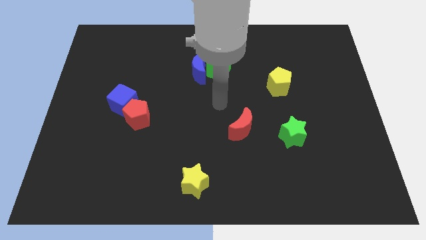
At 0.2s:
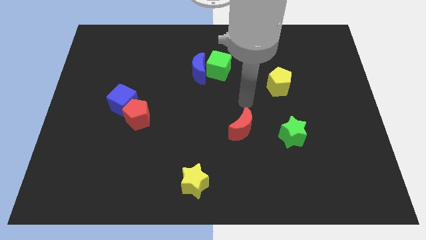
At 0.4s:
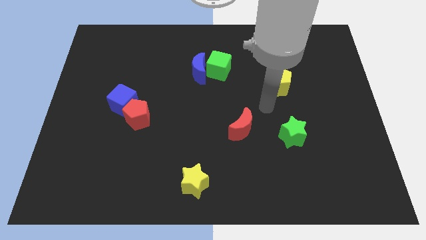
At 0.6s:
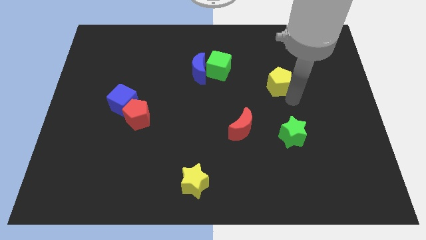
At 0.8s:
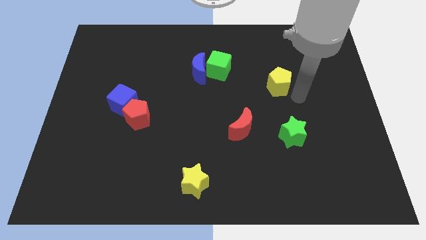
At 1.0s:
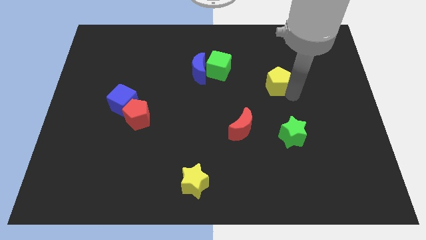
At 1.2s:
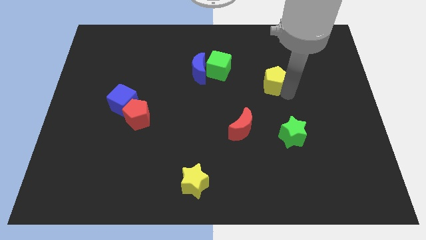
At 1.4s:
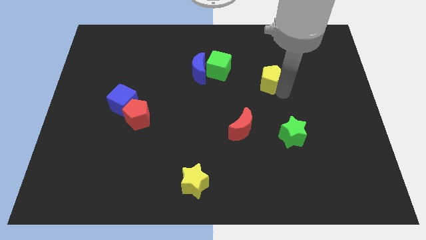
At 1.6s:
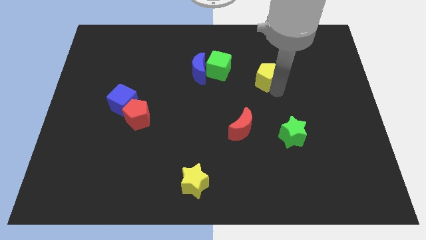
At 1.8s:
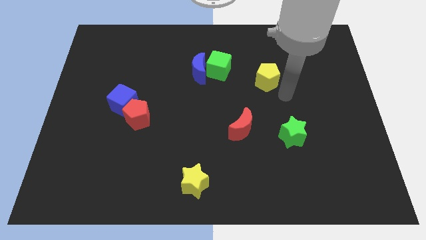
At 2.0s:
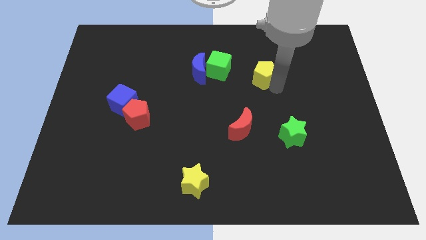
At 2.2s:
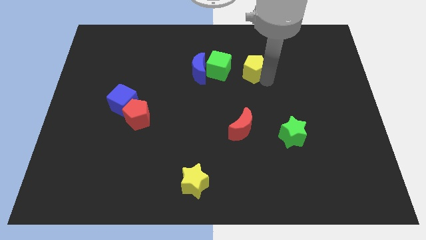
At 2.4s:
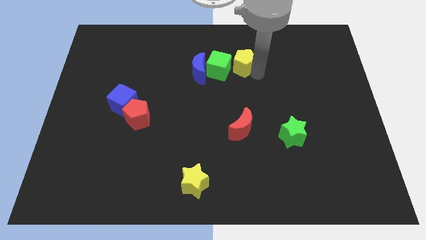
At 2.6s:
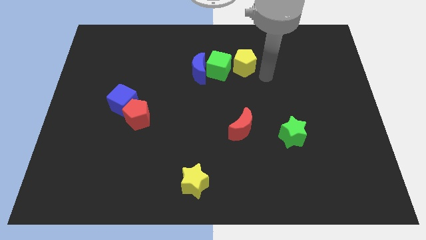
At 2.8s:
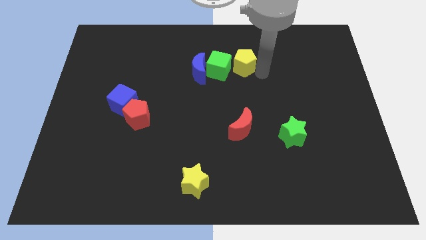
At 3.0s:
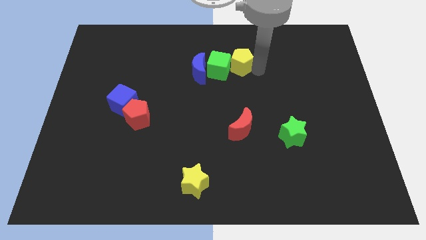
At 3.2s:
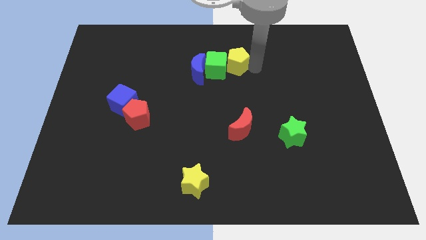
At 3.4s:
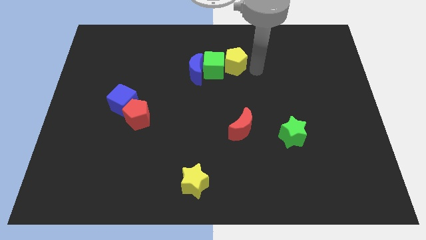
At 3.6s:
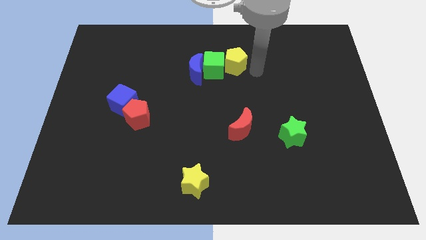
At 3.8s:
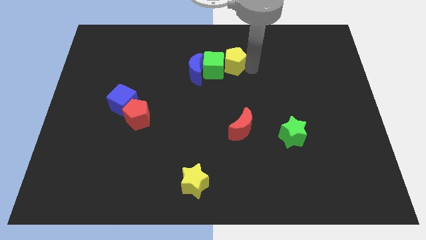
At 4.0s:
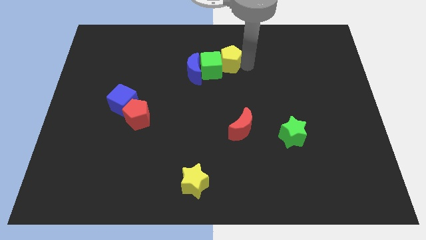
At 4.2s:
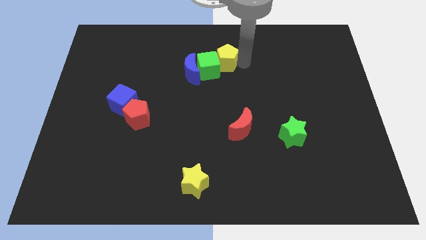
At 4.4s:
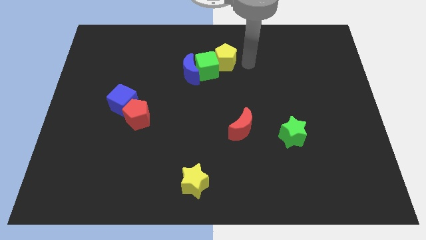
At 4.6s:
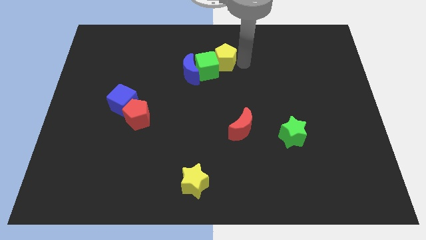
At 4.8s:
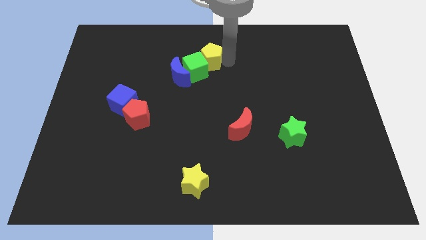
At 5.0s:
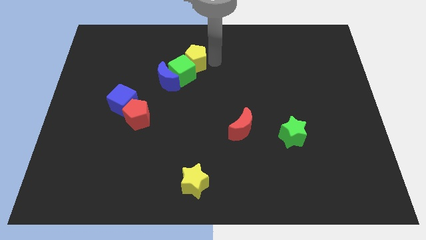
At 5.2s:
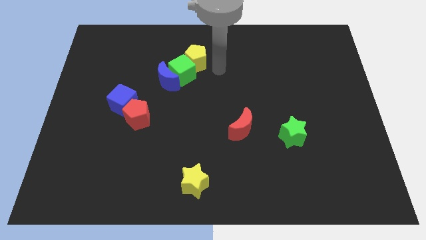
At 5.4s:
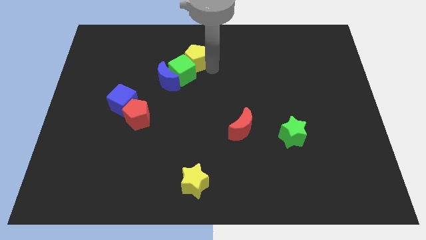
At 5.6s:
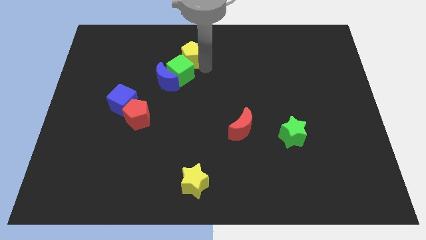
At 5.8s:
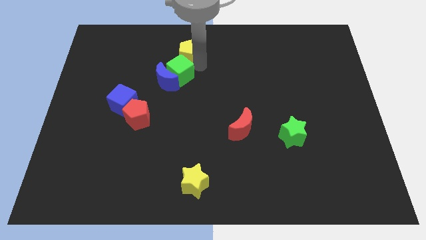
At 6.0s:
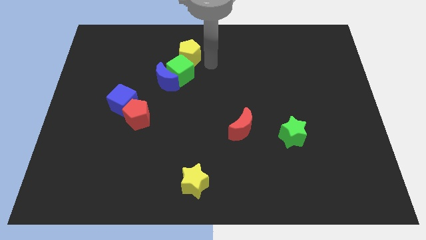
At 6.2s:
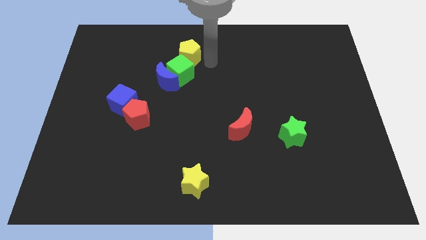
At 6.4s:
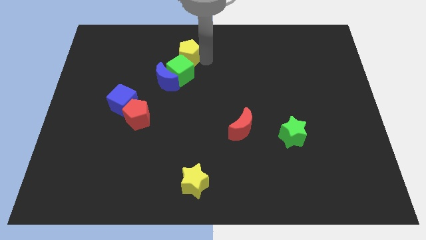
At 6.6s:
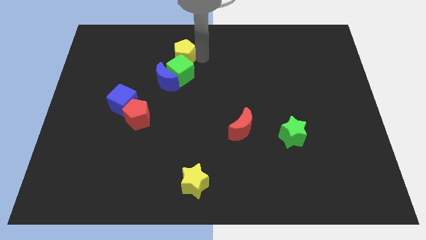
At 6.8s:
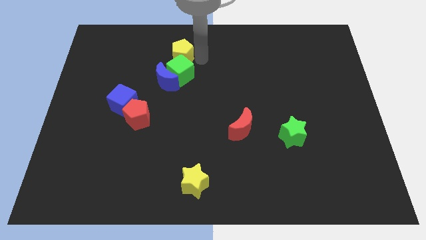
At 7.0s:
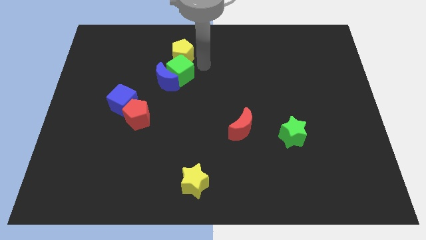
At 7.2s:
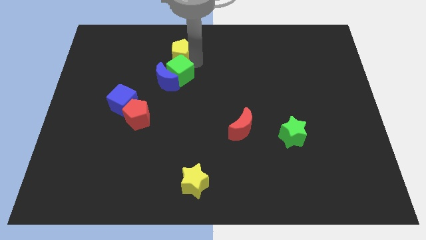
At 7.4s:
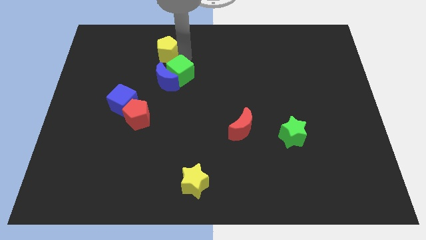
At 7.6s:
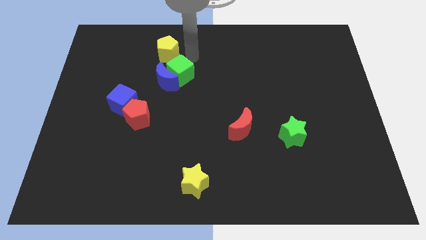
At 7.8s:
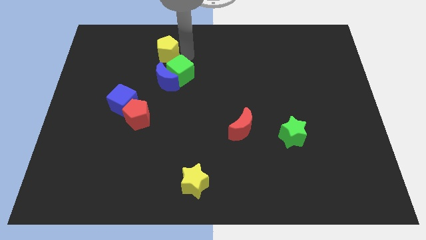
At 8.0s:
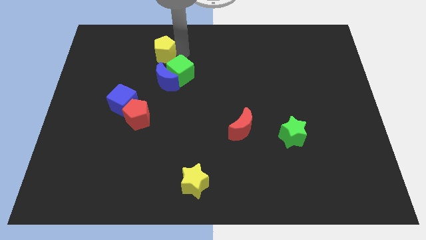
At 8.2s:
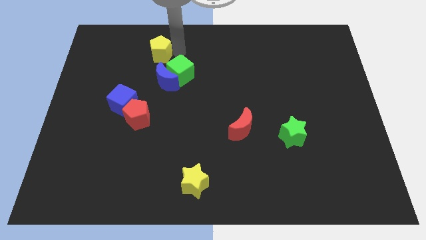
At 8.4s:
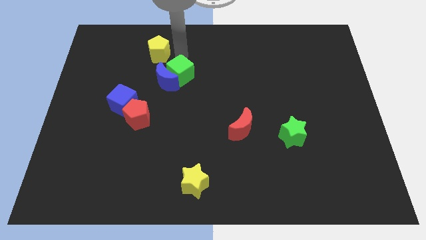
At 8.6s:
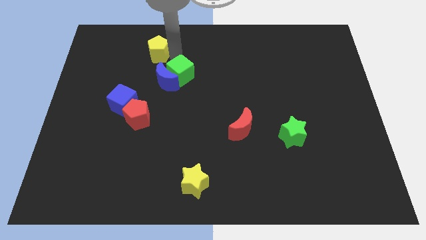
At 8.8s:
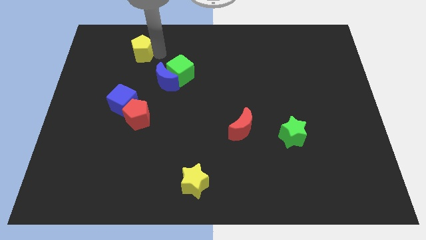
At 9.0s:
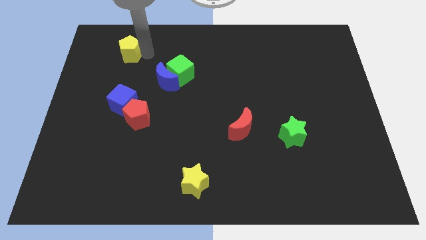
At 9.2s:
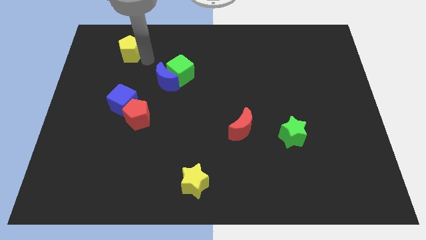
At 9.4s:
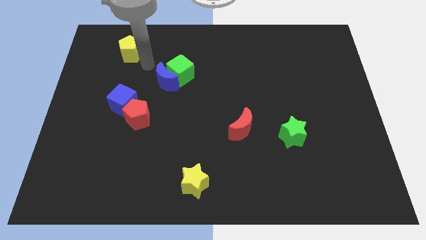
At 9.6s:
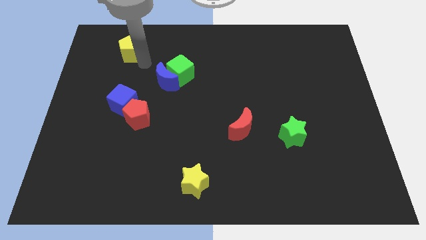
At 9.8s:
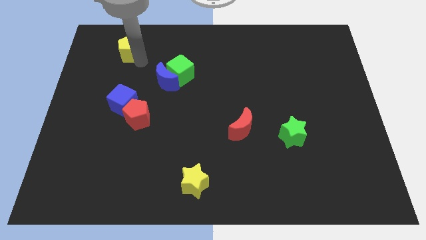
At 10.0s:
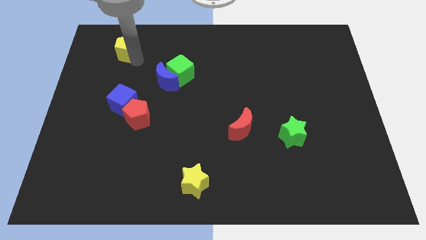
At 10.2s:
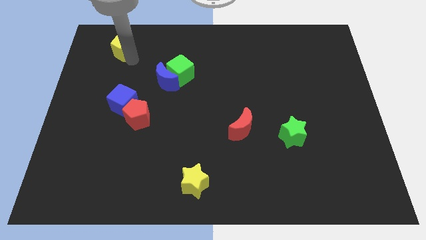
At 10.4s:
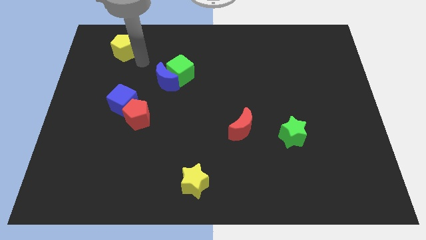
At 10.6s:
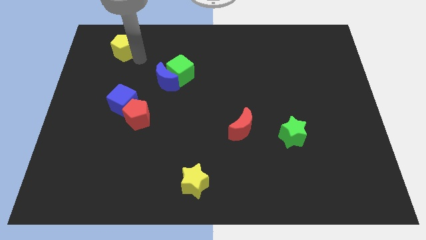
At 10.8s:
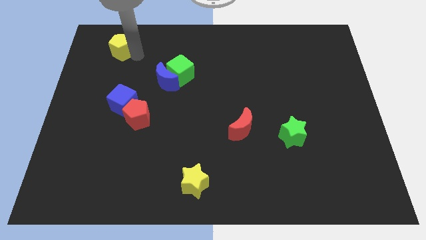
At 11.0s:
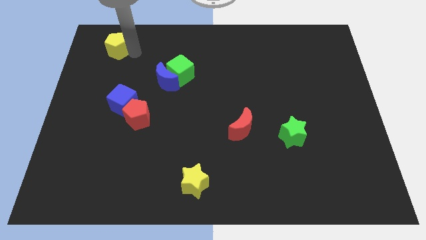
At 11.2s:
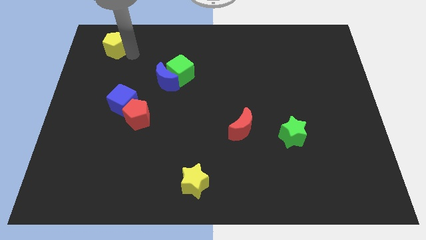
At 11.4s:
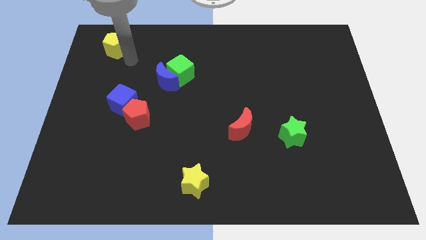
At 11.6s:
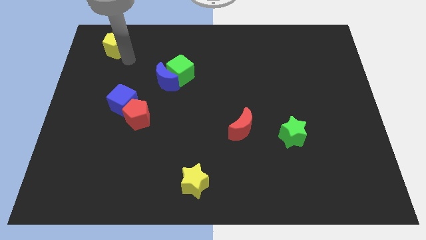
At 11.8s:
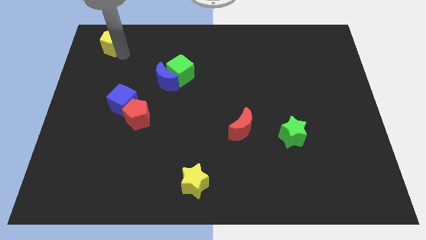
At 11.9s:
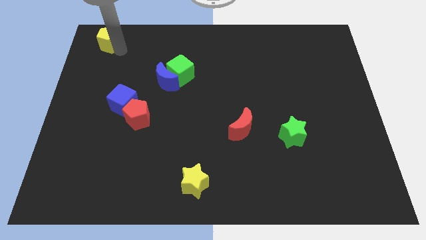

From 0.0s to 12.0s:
move the yellow pentagon to the top left of the board

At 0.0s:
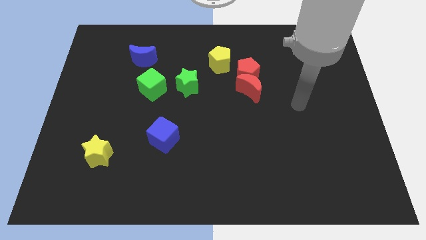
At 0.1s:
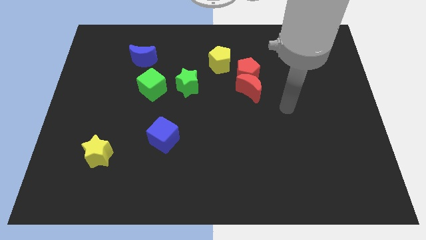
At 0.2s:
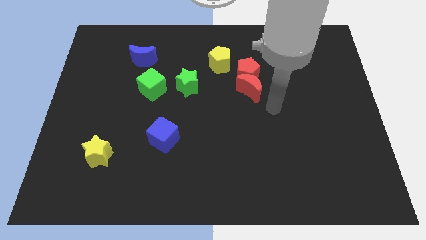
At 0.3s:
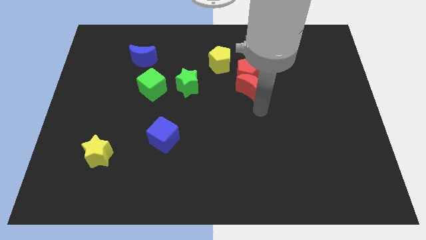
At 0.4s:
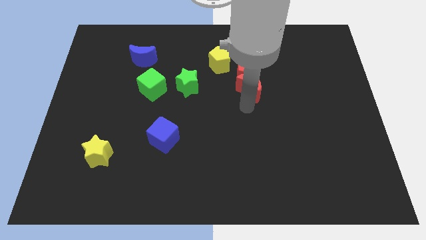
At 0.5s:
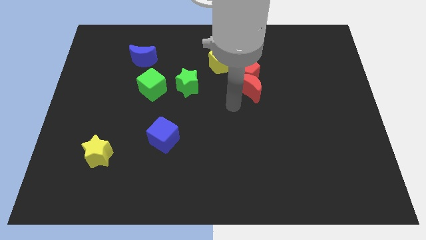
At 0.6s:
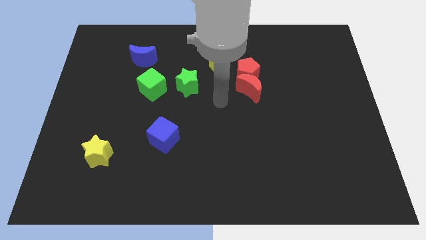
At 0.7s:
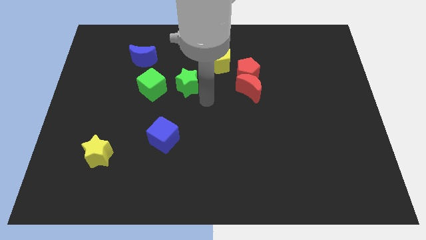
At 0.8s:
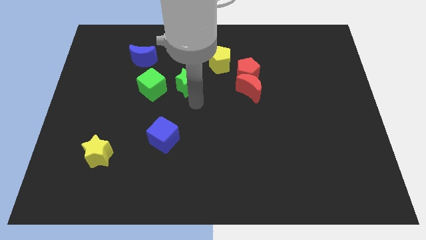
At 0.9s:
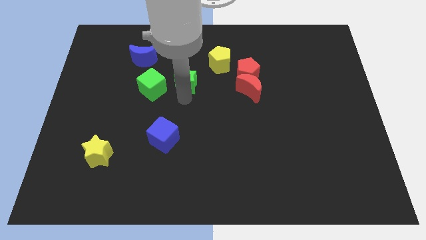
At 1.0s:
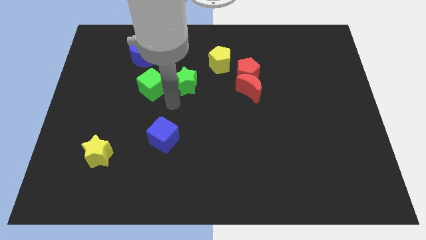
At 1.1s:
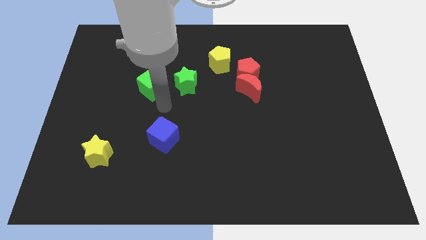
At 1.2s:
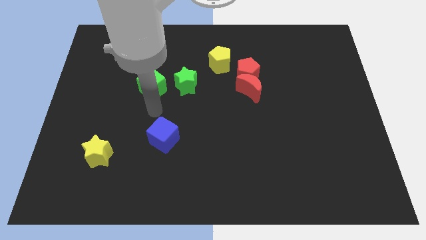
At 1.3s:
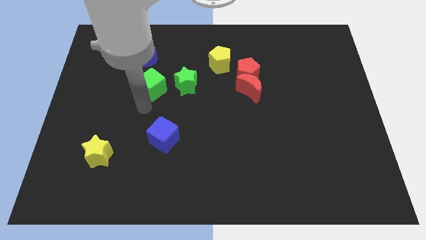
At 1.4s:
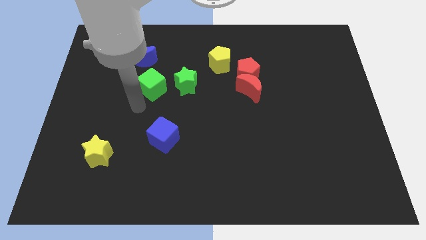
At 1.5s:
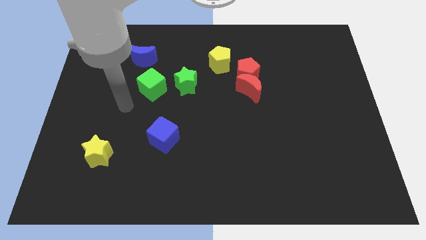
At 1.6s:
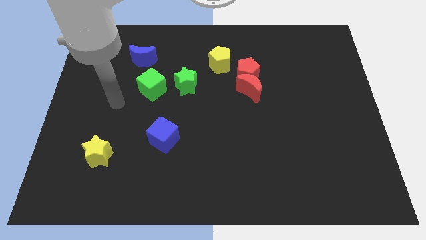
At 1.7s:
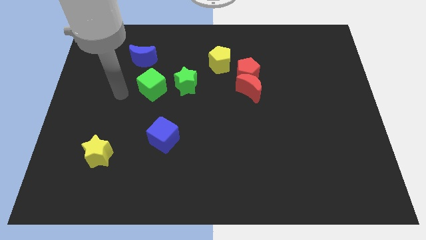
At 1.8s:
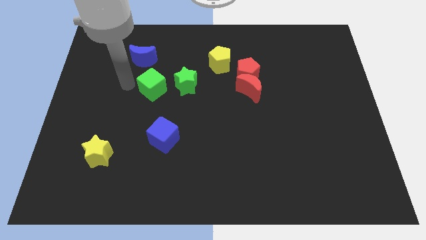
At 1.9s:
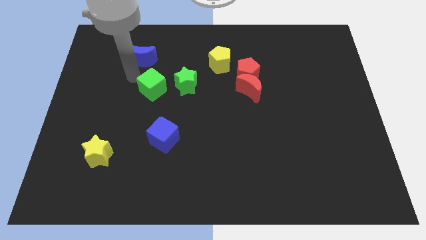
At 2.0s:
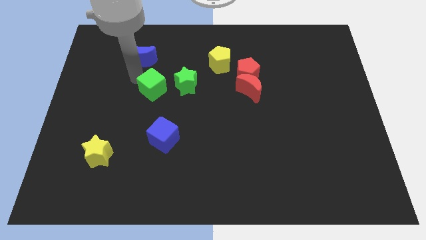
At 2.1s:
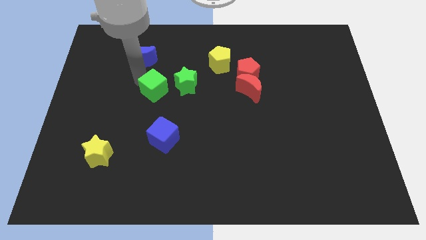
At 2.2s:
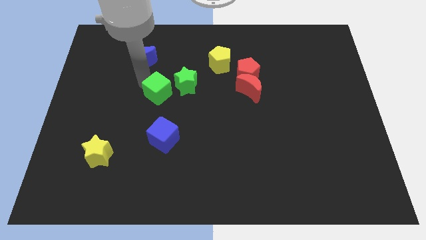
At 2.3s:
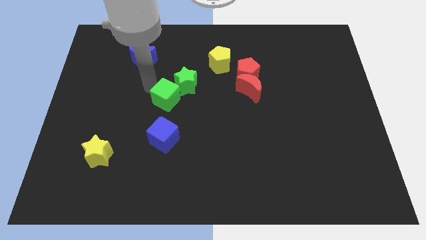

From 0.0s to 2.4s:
push the green cube to the middle of the board
